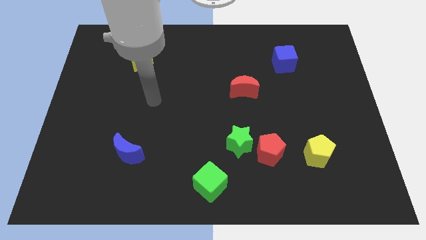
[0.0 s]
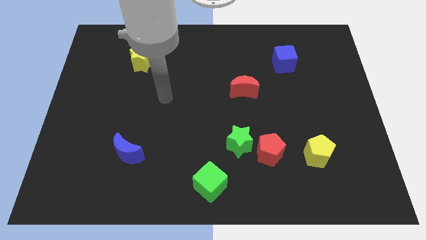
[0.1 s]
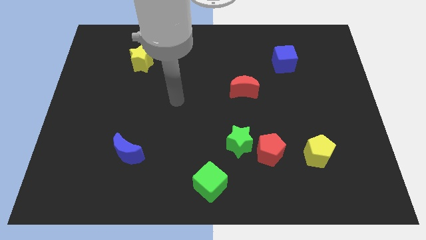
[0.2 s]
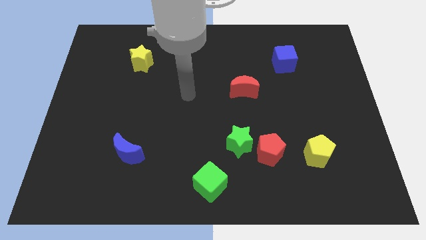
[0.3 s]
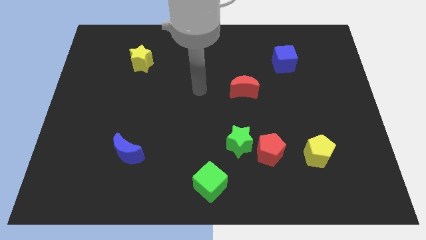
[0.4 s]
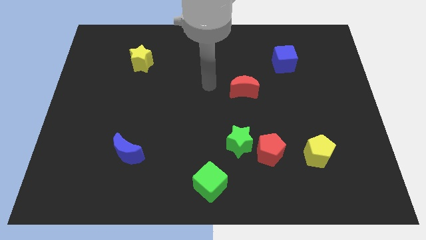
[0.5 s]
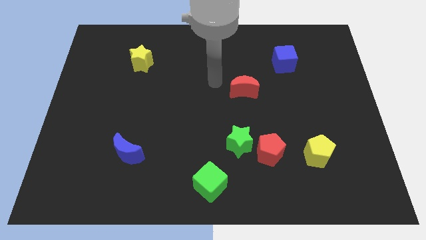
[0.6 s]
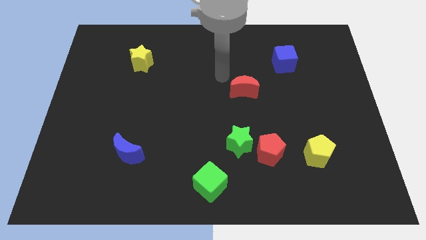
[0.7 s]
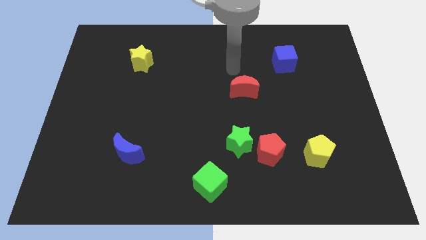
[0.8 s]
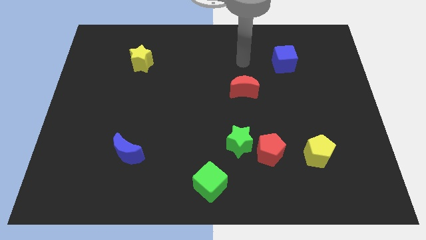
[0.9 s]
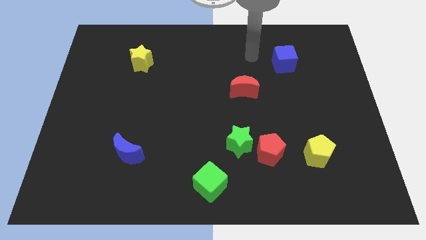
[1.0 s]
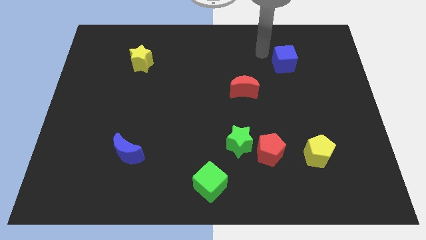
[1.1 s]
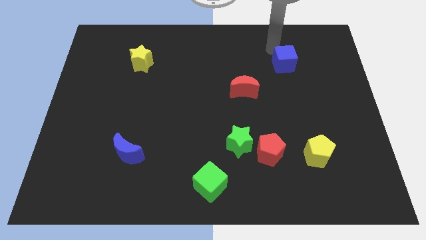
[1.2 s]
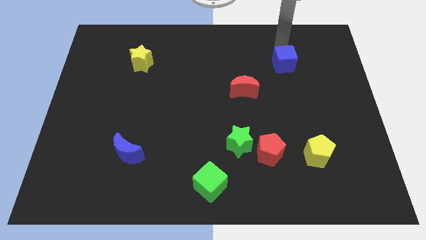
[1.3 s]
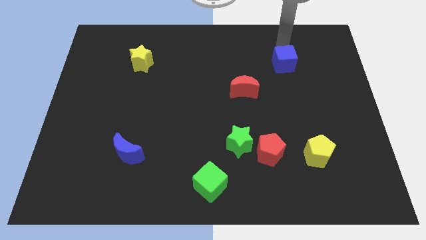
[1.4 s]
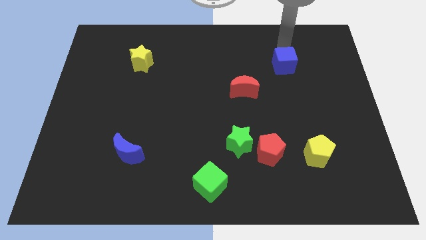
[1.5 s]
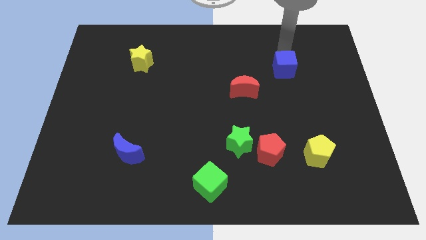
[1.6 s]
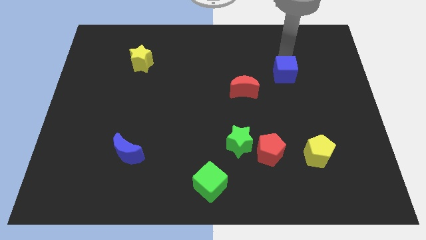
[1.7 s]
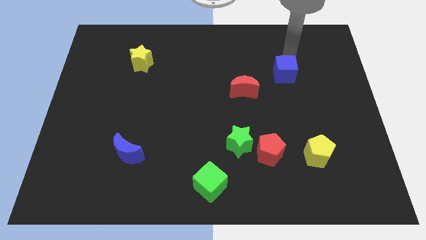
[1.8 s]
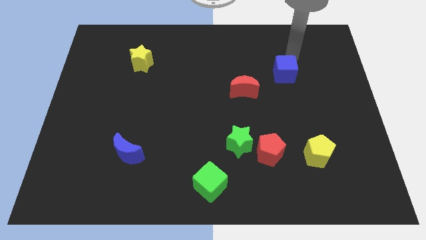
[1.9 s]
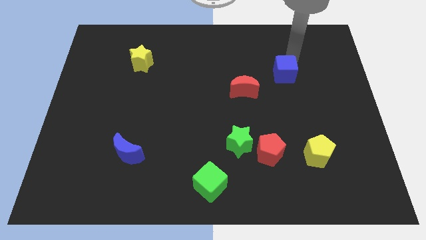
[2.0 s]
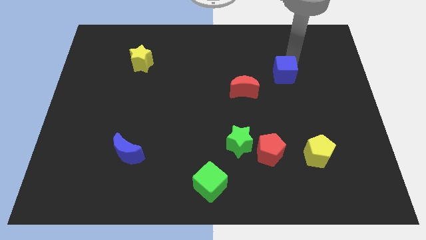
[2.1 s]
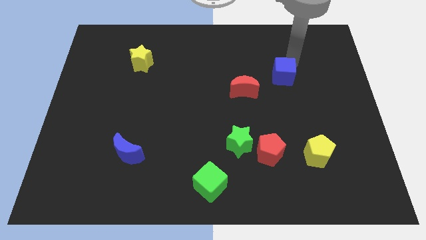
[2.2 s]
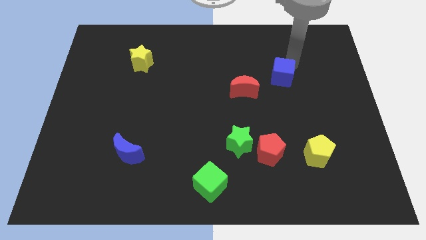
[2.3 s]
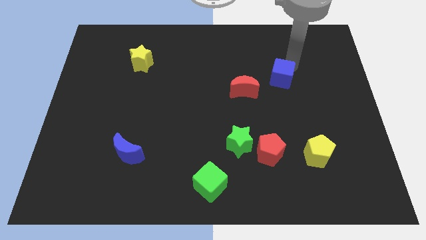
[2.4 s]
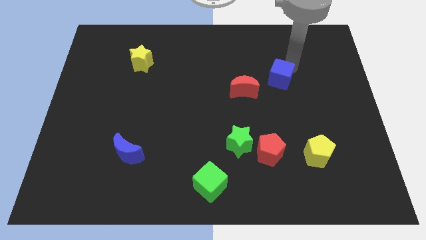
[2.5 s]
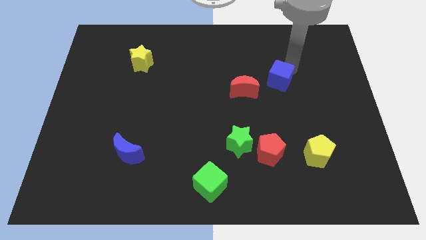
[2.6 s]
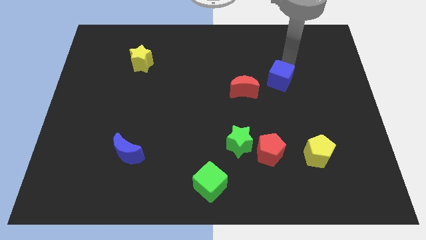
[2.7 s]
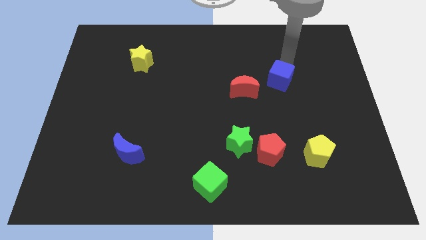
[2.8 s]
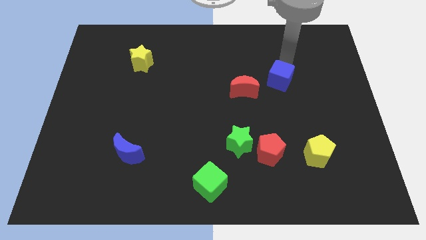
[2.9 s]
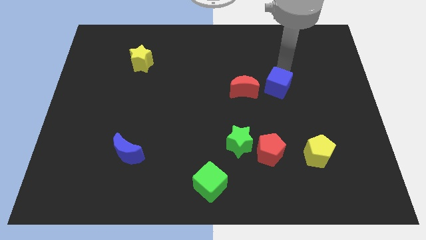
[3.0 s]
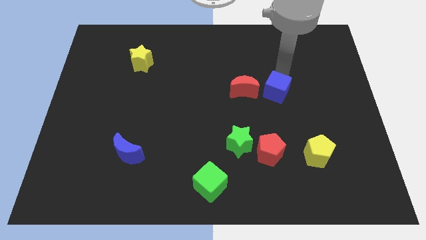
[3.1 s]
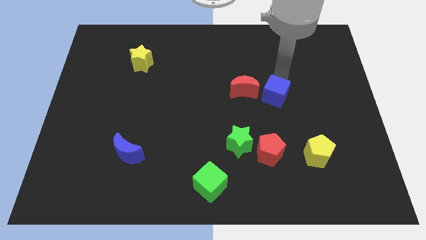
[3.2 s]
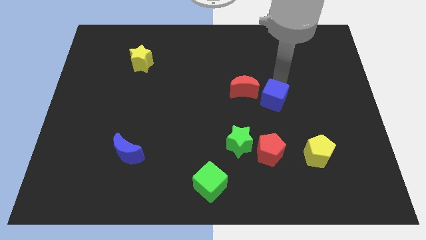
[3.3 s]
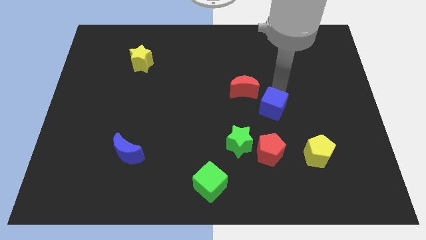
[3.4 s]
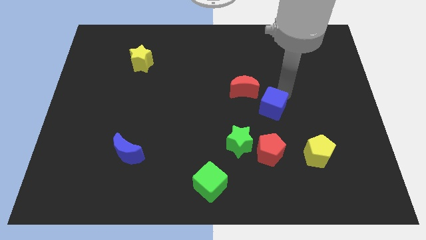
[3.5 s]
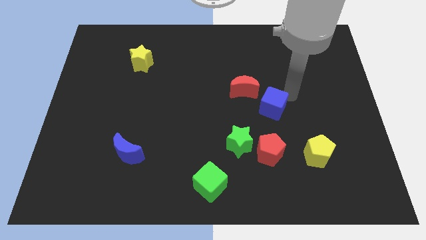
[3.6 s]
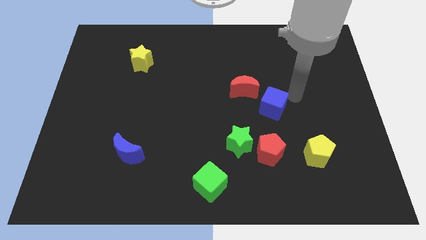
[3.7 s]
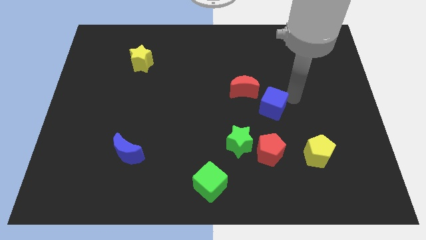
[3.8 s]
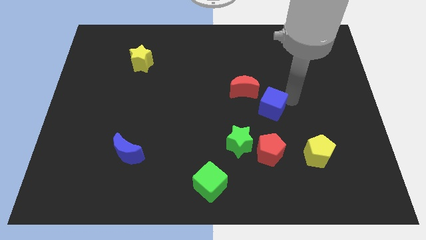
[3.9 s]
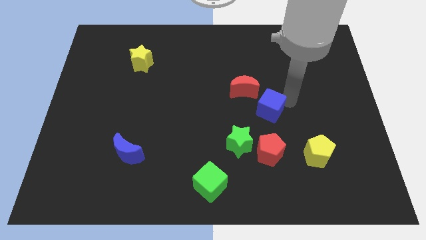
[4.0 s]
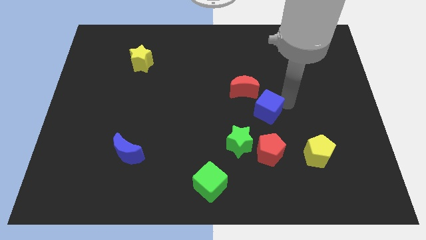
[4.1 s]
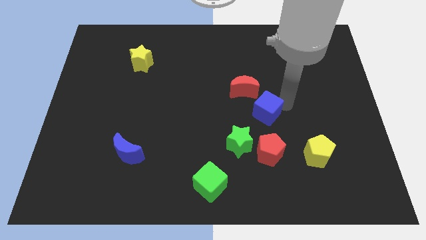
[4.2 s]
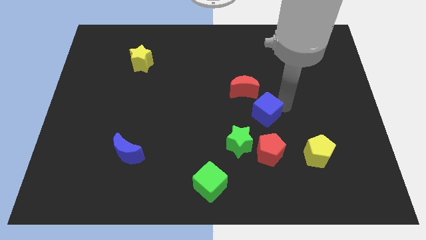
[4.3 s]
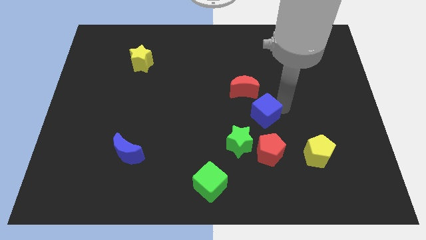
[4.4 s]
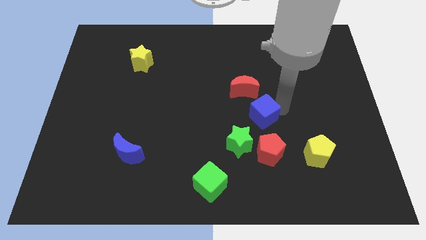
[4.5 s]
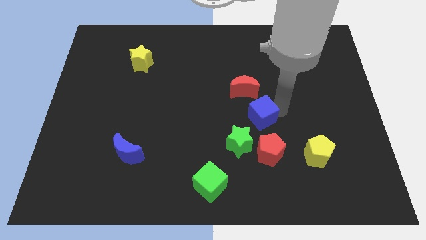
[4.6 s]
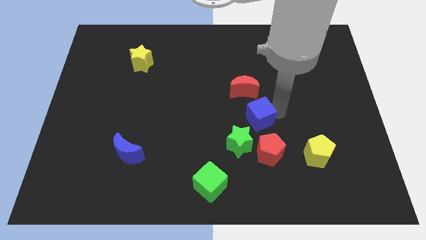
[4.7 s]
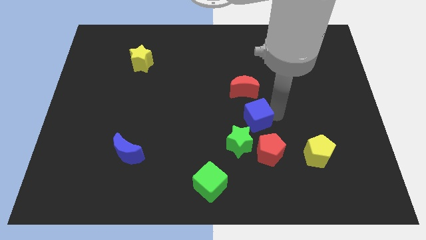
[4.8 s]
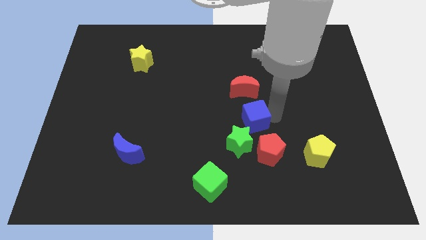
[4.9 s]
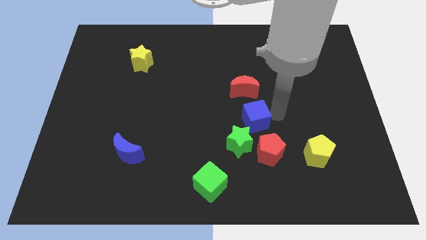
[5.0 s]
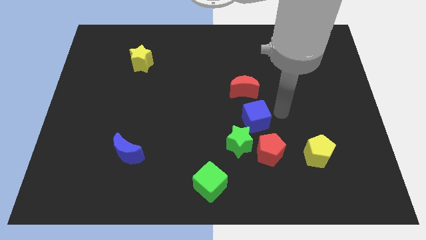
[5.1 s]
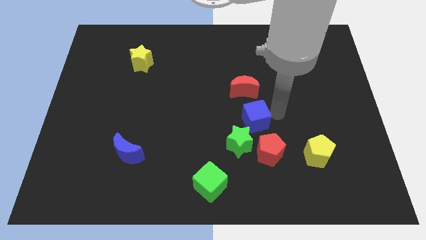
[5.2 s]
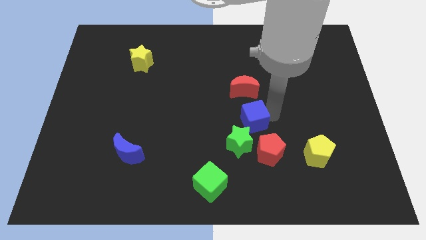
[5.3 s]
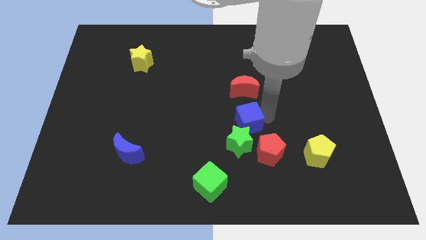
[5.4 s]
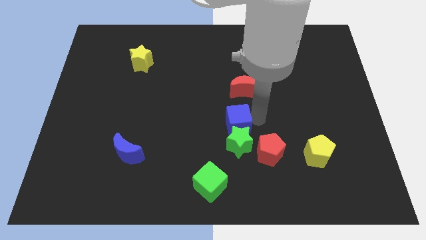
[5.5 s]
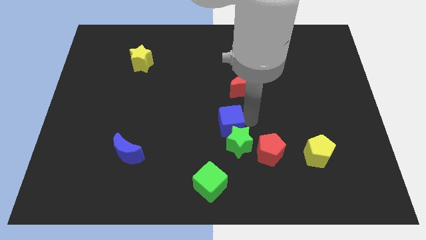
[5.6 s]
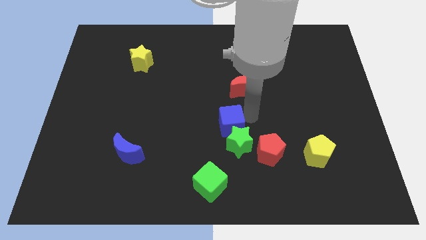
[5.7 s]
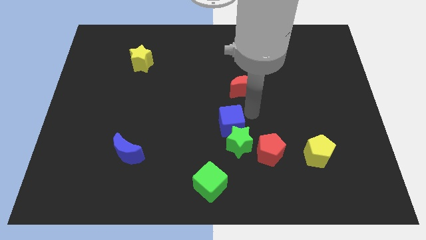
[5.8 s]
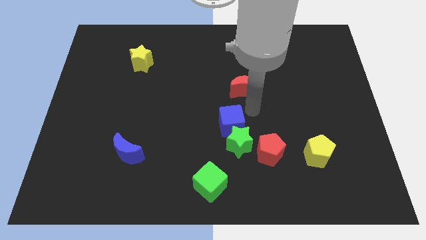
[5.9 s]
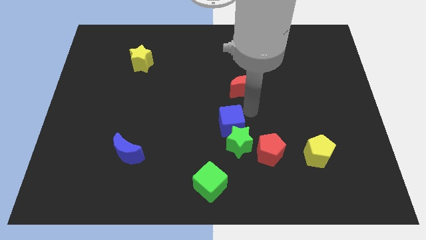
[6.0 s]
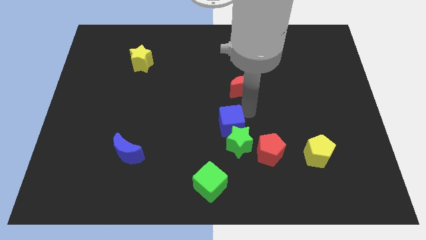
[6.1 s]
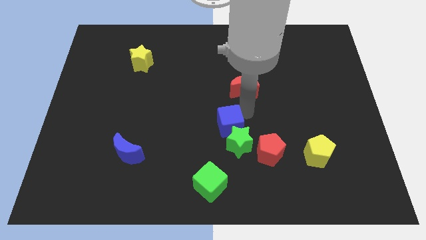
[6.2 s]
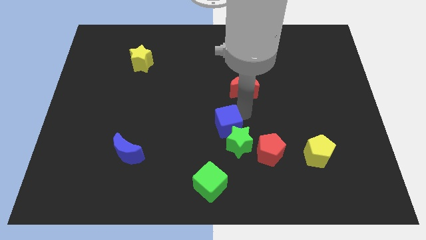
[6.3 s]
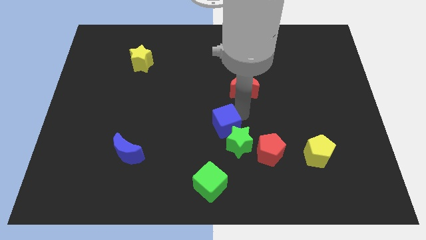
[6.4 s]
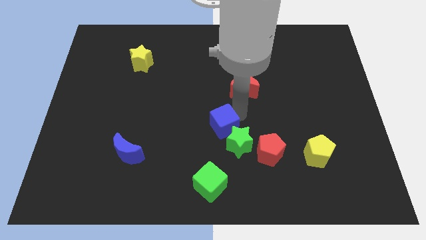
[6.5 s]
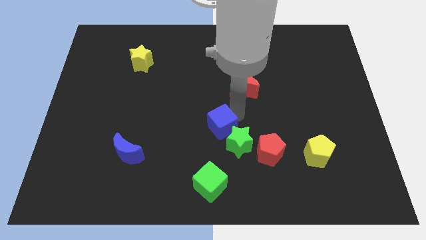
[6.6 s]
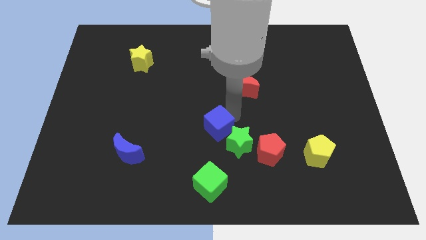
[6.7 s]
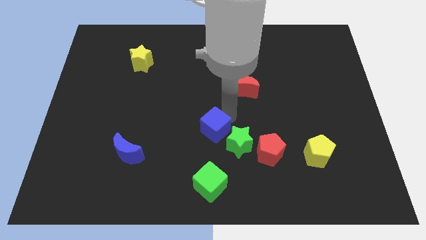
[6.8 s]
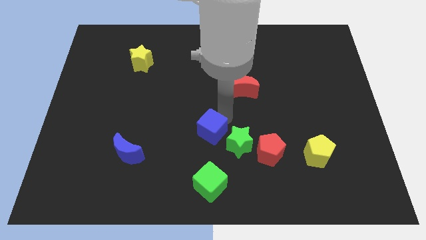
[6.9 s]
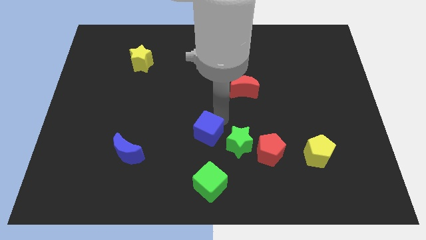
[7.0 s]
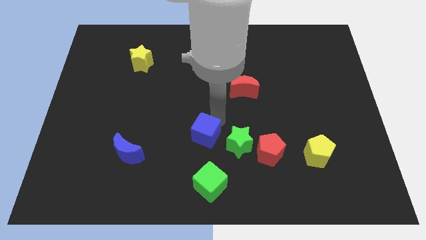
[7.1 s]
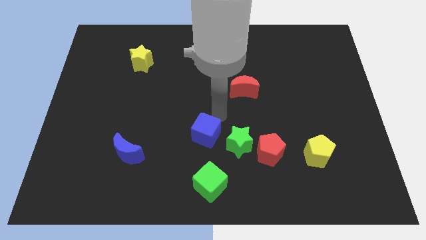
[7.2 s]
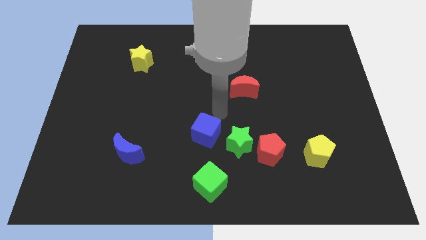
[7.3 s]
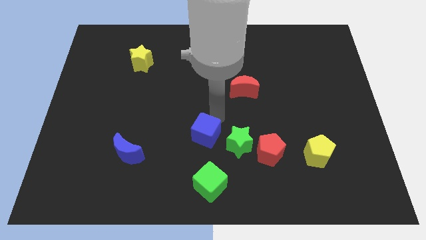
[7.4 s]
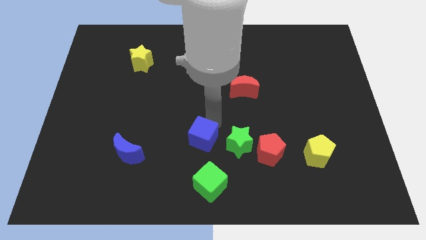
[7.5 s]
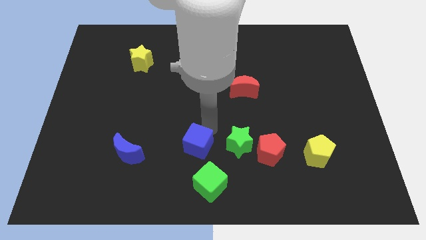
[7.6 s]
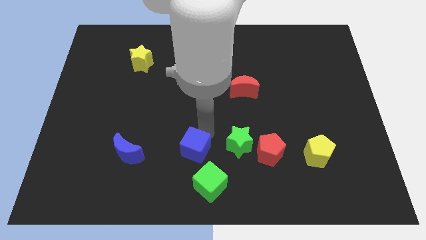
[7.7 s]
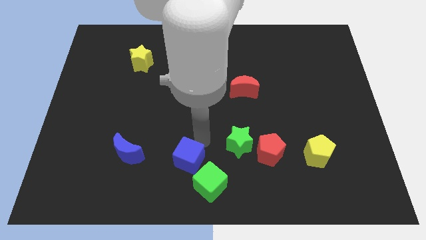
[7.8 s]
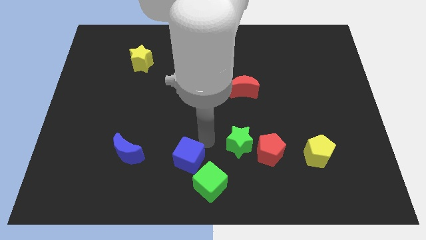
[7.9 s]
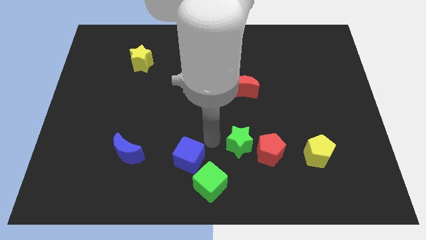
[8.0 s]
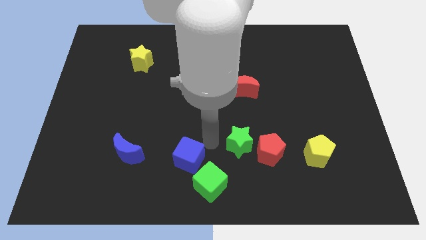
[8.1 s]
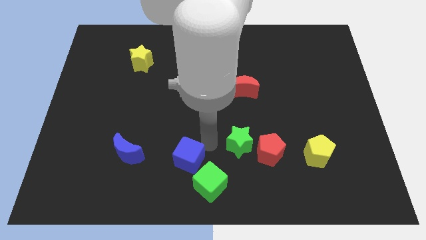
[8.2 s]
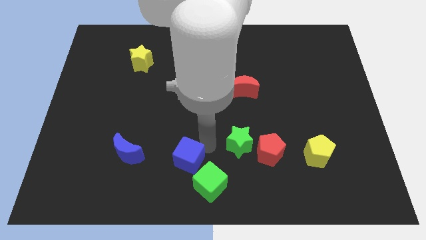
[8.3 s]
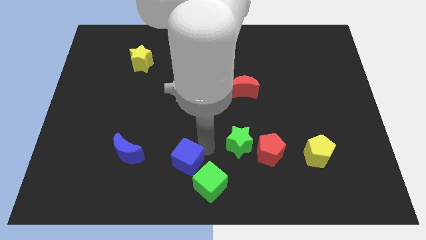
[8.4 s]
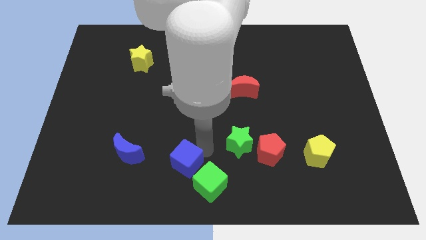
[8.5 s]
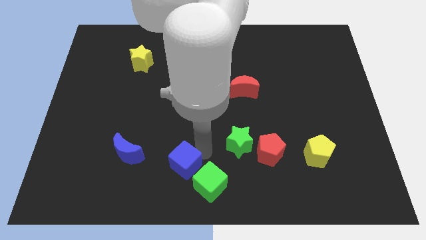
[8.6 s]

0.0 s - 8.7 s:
move the blue cube left of the green cube
